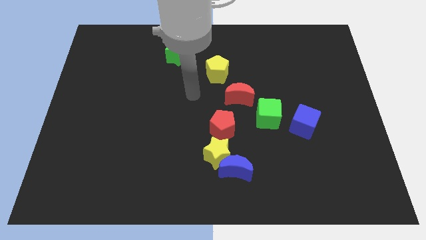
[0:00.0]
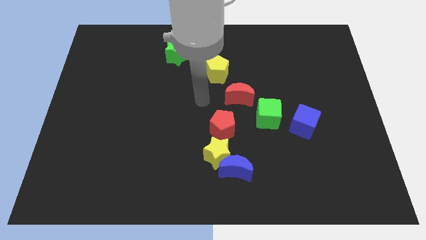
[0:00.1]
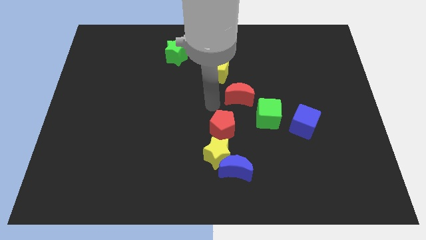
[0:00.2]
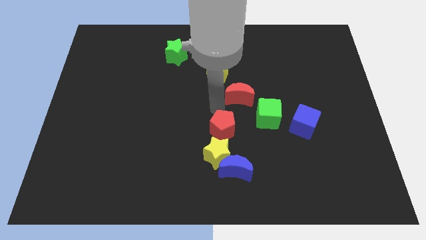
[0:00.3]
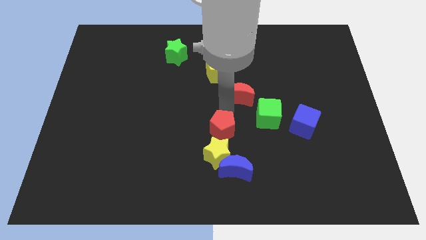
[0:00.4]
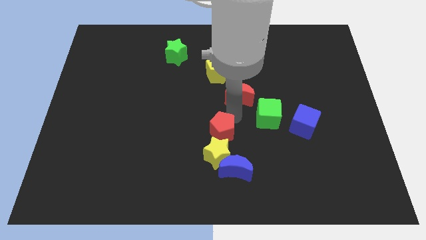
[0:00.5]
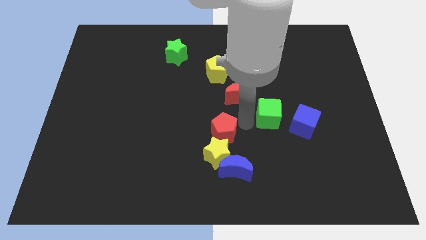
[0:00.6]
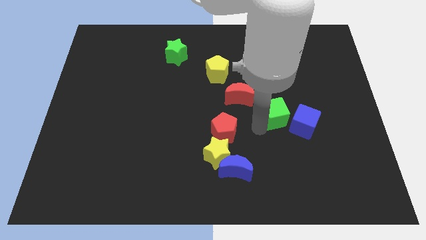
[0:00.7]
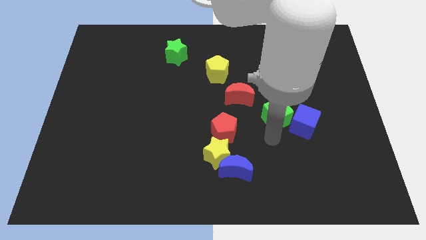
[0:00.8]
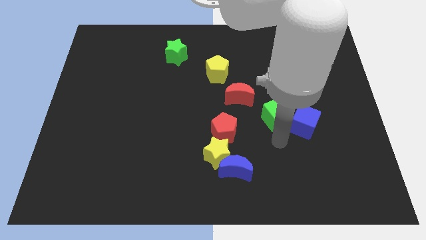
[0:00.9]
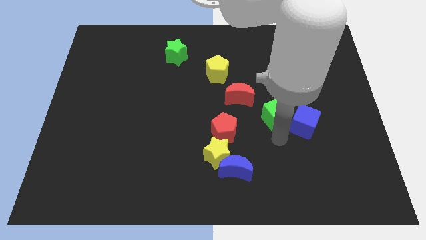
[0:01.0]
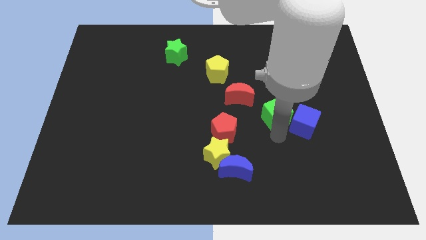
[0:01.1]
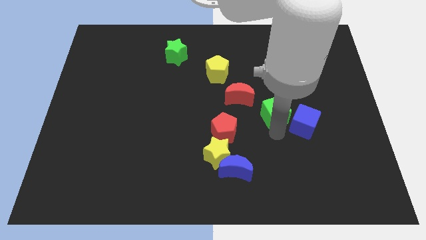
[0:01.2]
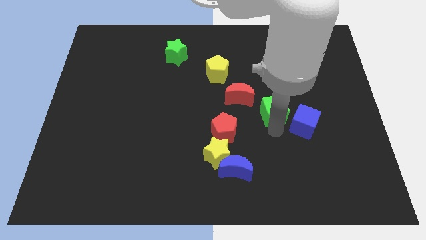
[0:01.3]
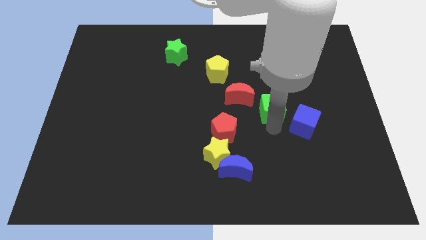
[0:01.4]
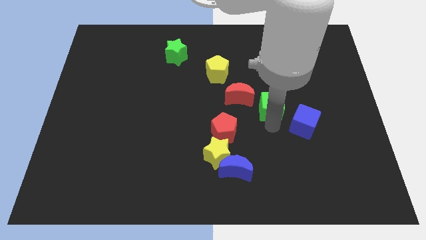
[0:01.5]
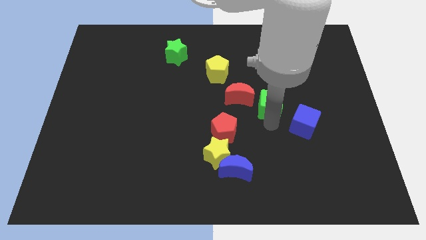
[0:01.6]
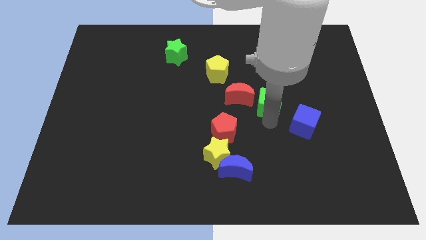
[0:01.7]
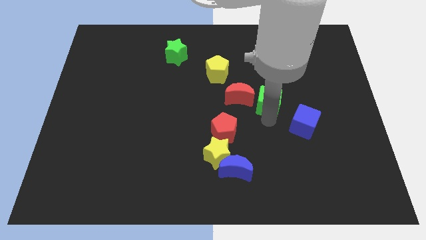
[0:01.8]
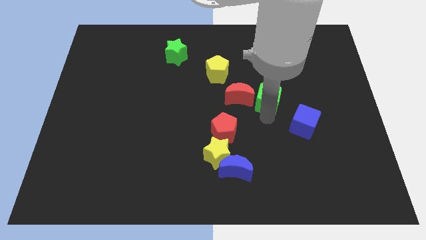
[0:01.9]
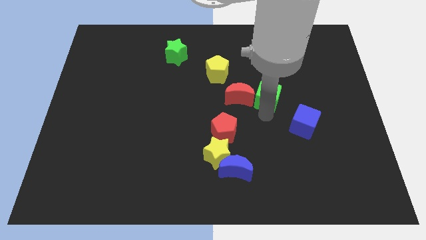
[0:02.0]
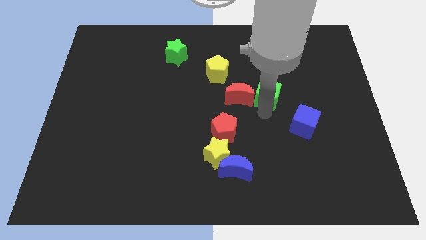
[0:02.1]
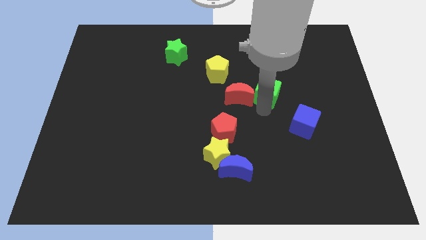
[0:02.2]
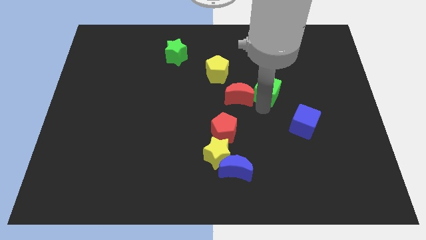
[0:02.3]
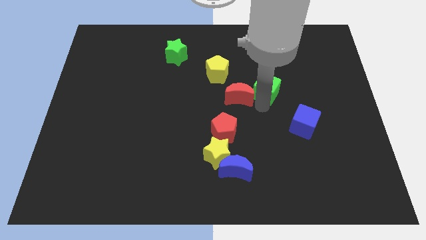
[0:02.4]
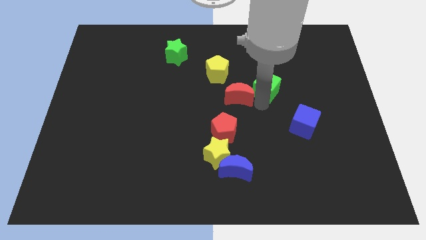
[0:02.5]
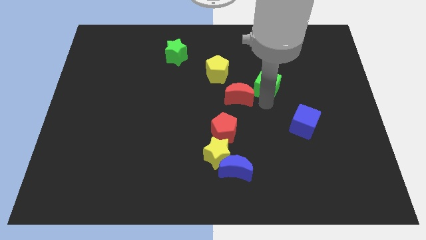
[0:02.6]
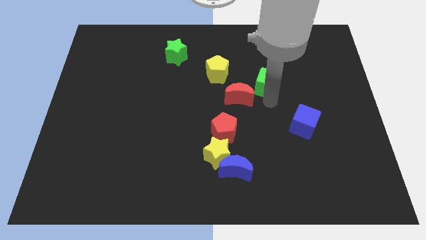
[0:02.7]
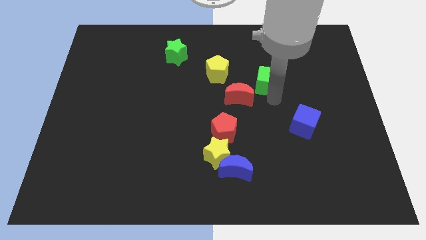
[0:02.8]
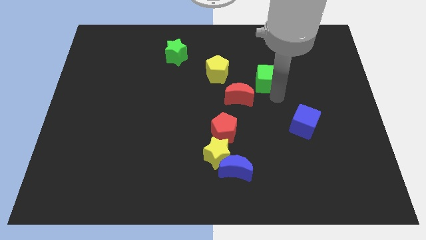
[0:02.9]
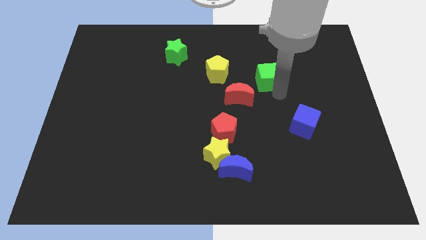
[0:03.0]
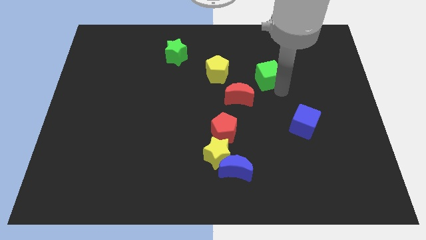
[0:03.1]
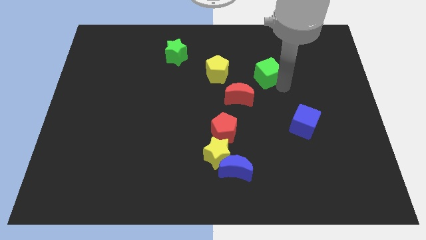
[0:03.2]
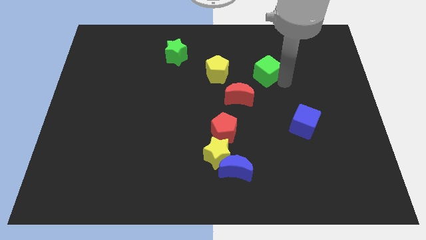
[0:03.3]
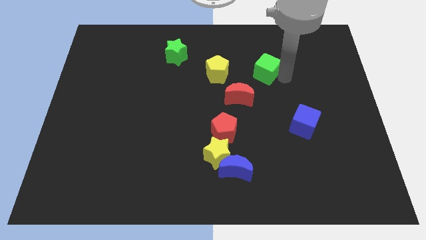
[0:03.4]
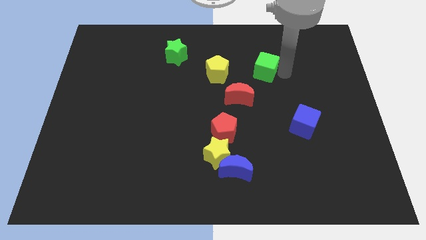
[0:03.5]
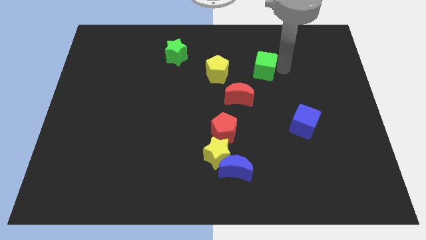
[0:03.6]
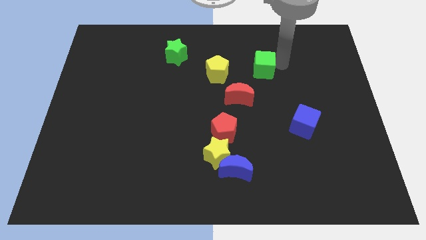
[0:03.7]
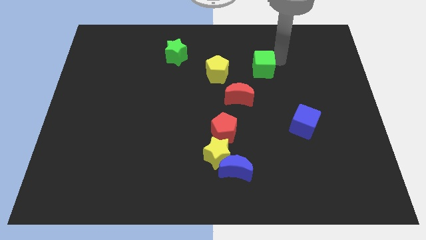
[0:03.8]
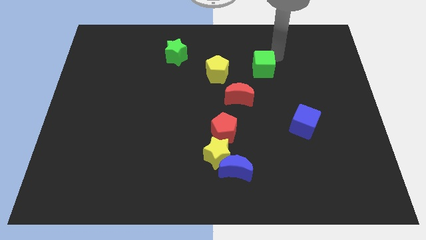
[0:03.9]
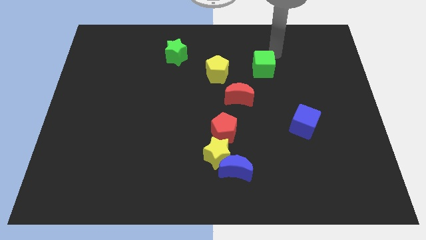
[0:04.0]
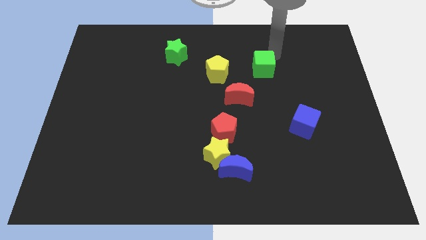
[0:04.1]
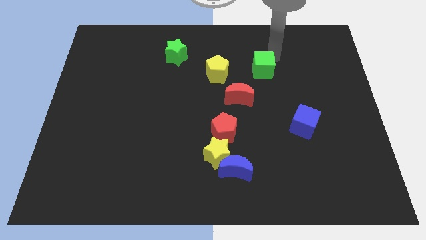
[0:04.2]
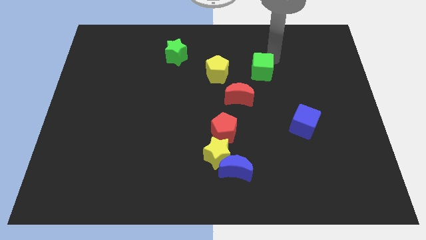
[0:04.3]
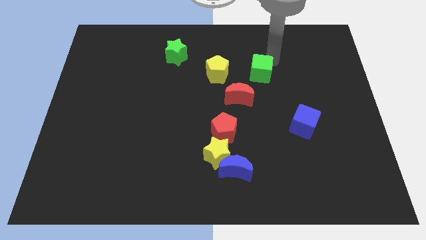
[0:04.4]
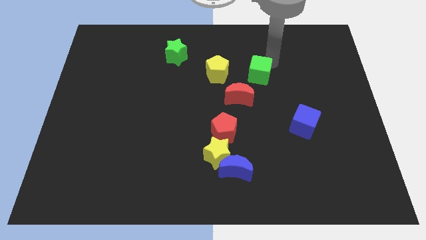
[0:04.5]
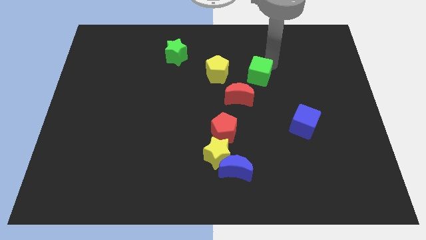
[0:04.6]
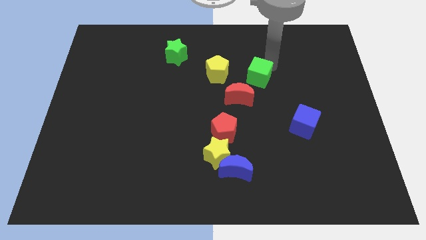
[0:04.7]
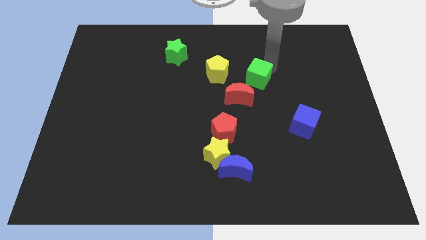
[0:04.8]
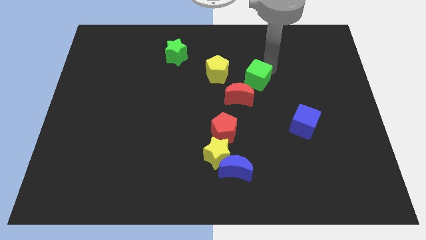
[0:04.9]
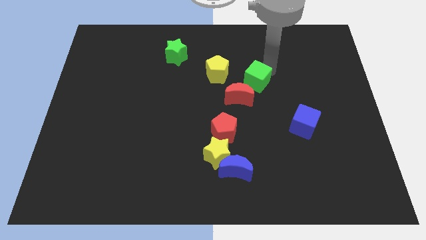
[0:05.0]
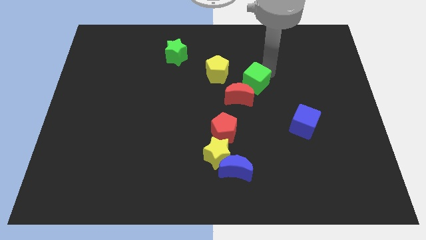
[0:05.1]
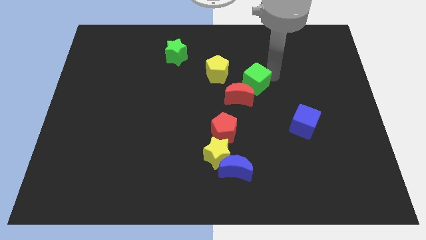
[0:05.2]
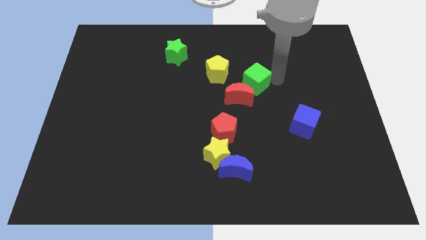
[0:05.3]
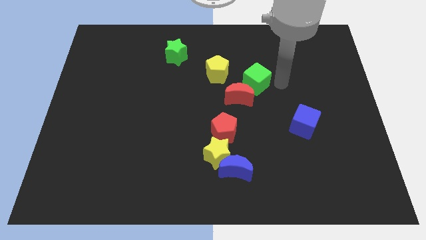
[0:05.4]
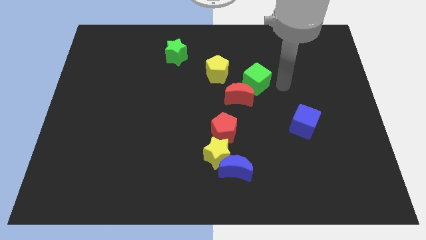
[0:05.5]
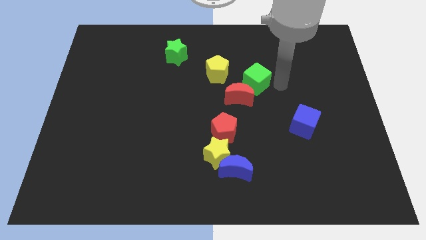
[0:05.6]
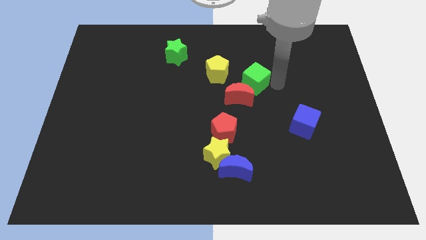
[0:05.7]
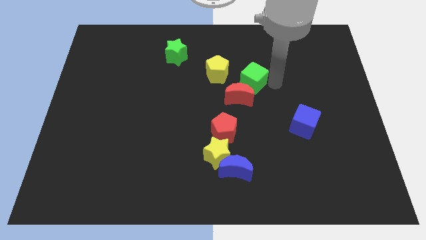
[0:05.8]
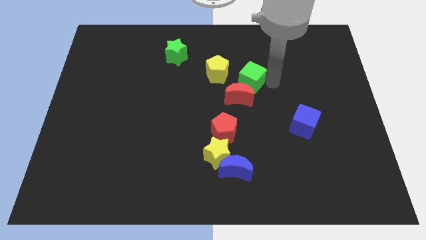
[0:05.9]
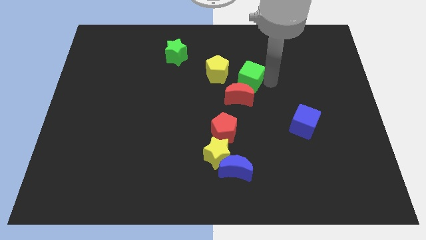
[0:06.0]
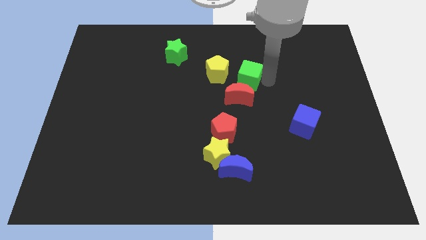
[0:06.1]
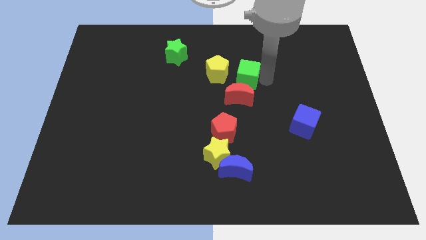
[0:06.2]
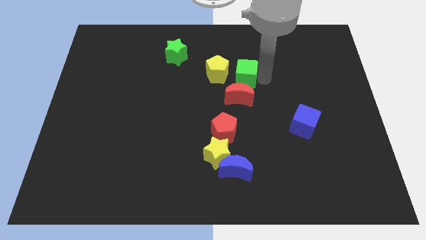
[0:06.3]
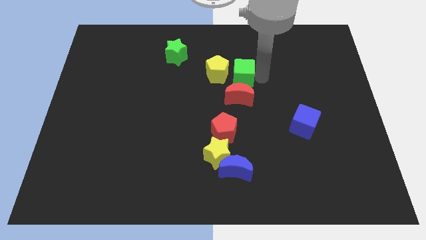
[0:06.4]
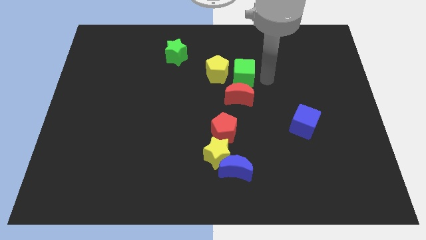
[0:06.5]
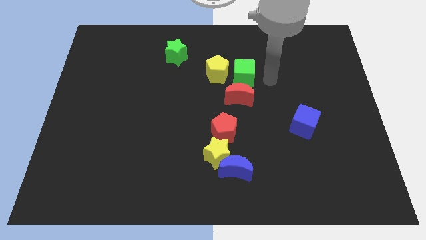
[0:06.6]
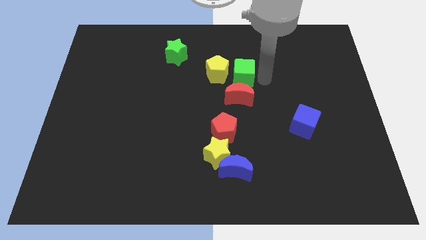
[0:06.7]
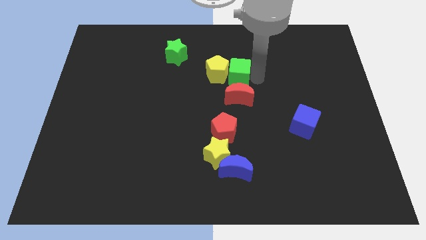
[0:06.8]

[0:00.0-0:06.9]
push the green cube to the yellow pentagon
